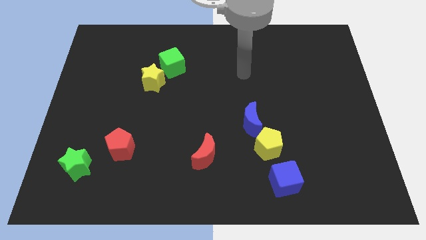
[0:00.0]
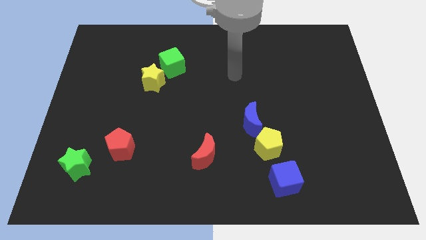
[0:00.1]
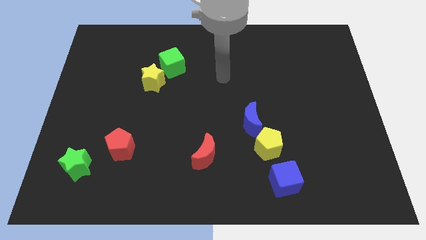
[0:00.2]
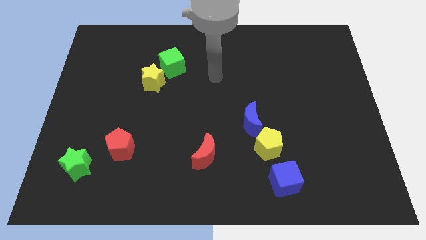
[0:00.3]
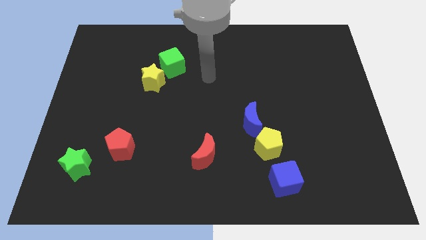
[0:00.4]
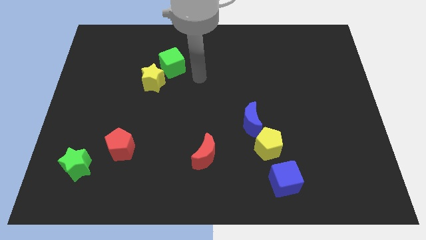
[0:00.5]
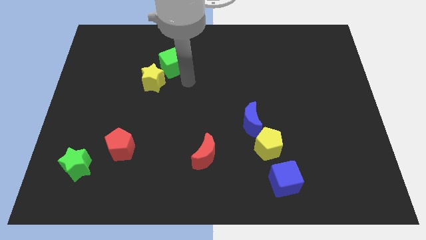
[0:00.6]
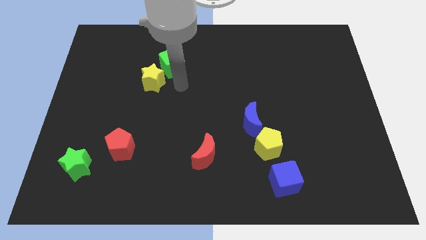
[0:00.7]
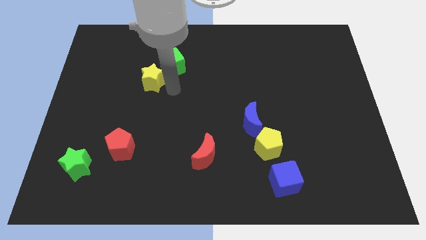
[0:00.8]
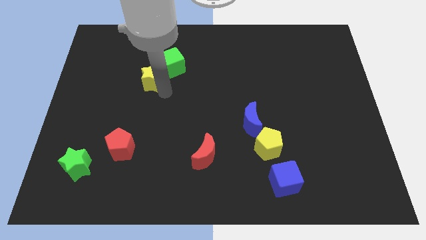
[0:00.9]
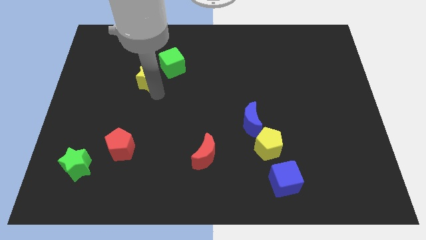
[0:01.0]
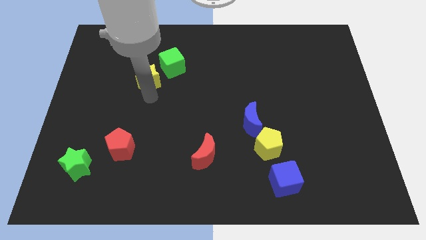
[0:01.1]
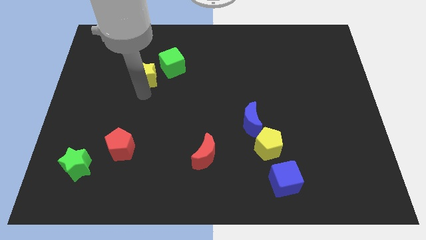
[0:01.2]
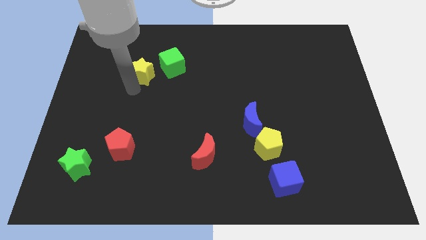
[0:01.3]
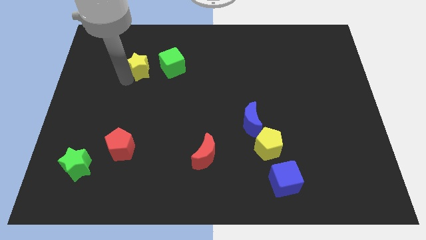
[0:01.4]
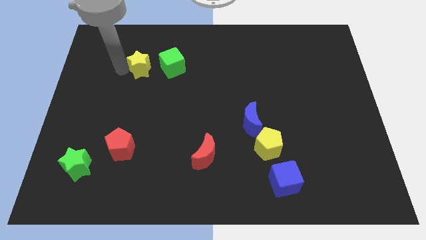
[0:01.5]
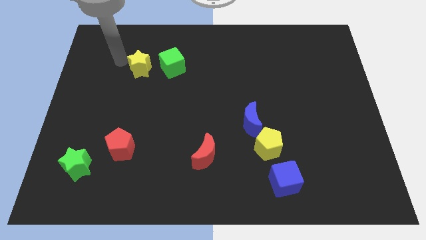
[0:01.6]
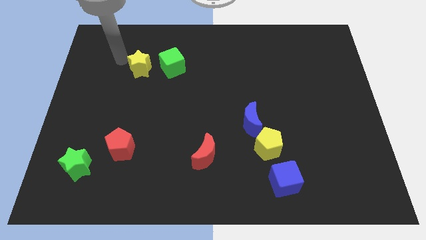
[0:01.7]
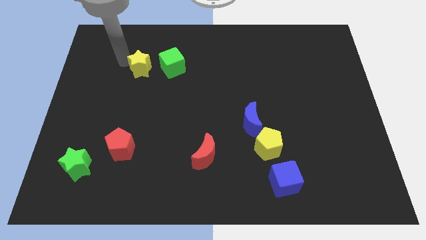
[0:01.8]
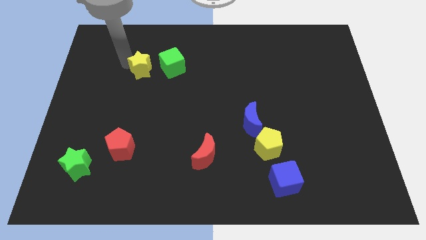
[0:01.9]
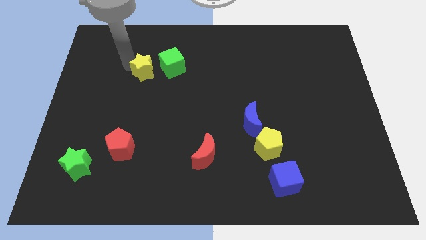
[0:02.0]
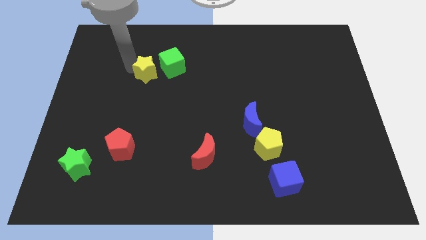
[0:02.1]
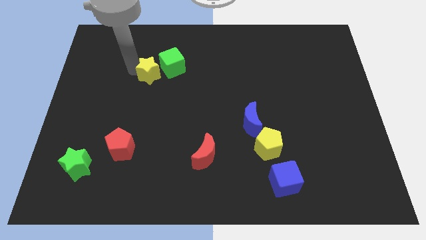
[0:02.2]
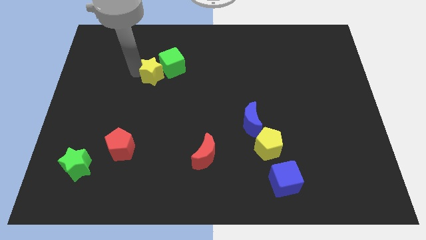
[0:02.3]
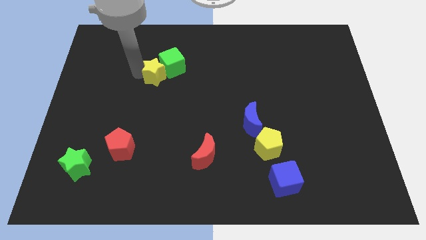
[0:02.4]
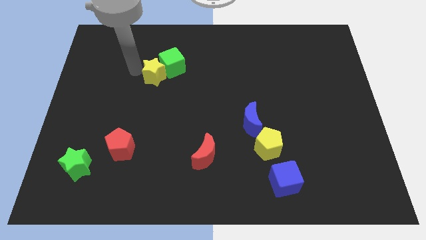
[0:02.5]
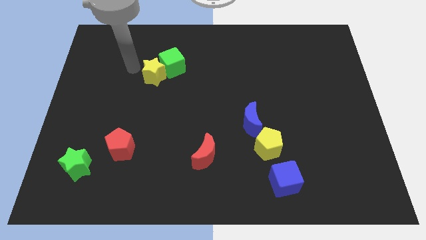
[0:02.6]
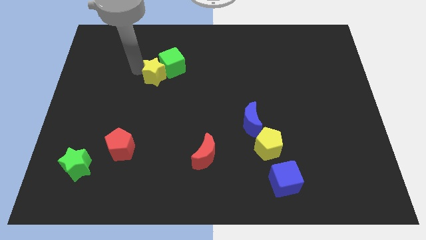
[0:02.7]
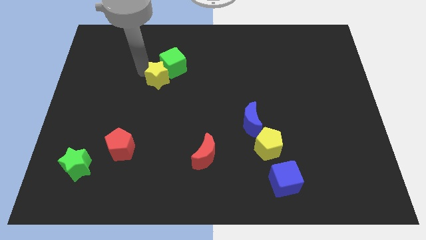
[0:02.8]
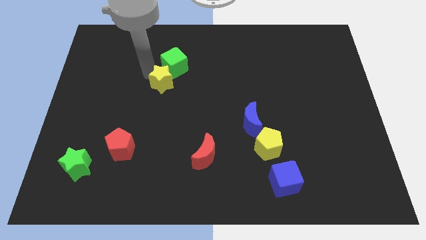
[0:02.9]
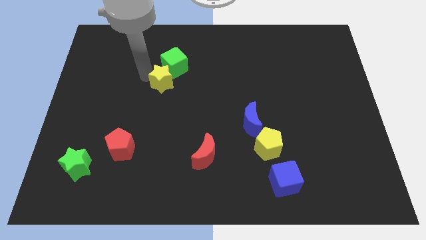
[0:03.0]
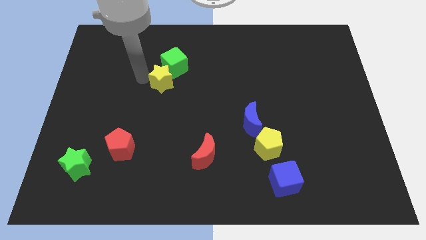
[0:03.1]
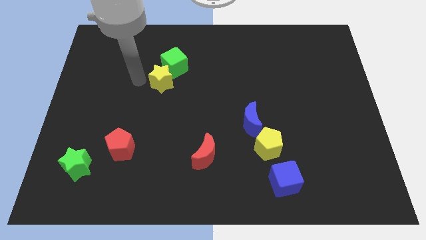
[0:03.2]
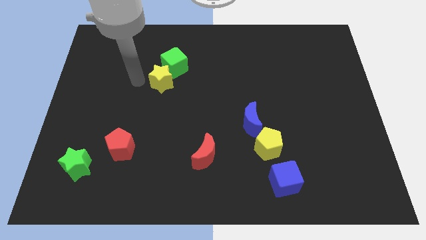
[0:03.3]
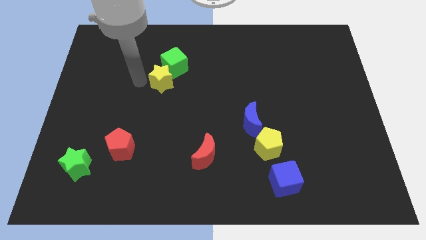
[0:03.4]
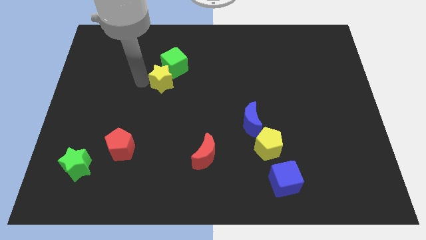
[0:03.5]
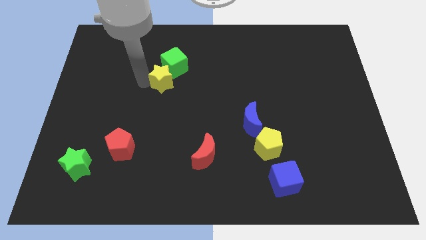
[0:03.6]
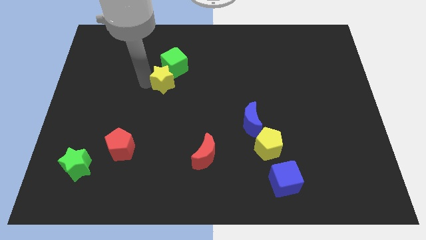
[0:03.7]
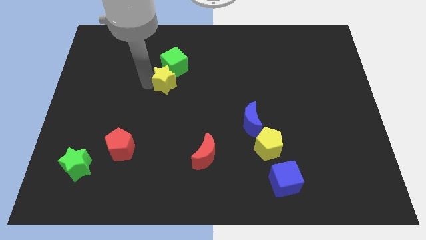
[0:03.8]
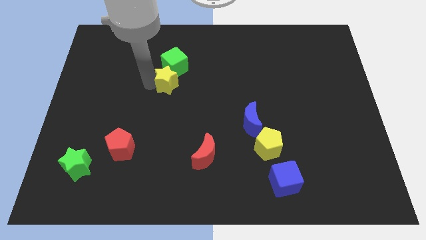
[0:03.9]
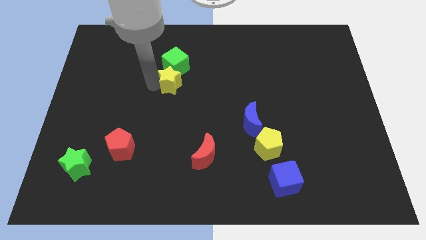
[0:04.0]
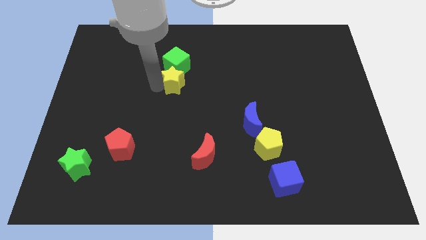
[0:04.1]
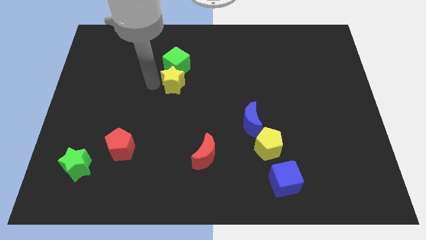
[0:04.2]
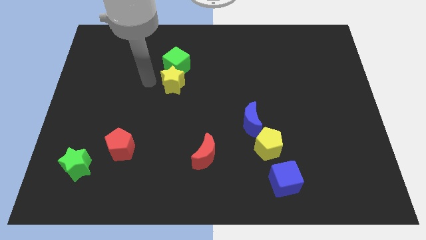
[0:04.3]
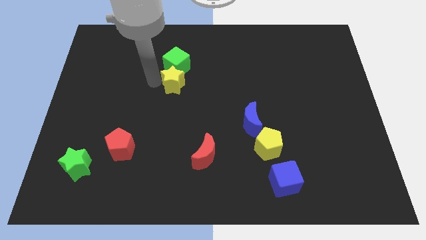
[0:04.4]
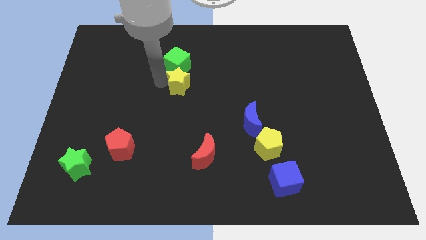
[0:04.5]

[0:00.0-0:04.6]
slightly move the yellow star right

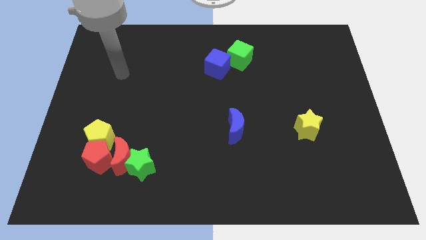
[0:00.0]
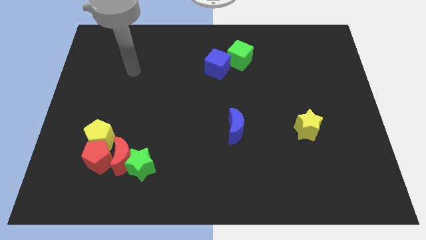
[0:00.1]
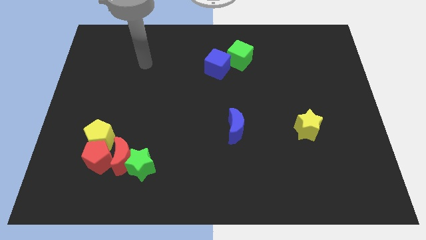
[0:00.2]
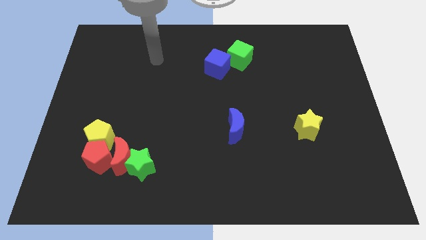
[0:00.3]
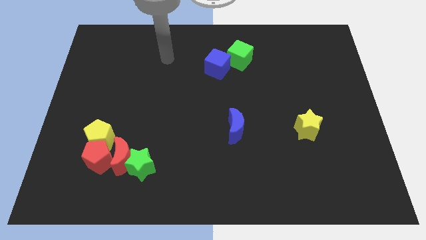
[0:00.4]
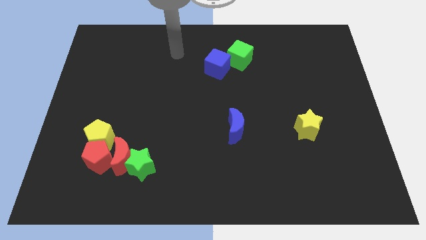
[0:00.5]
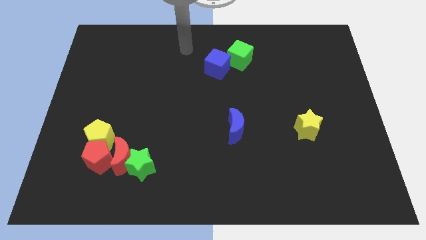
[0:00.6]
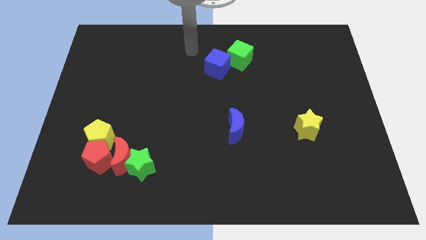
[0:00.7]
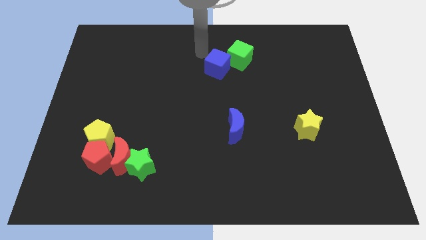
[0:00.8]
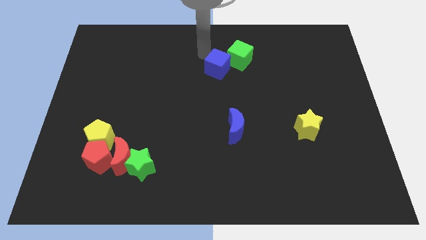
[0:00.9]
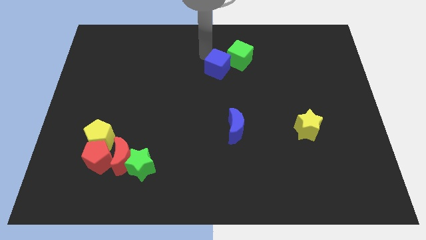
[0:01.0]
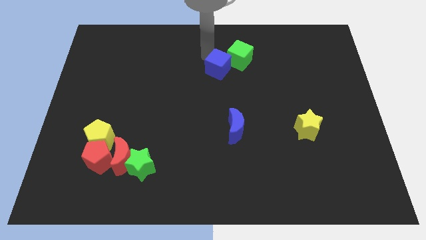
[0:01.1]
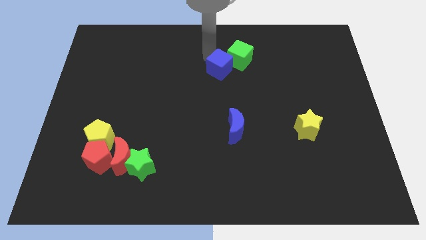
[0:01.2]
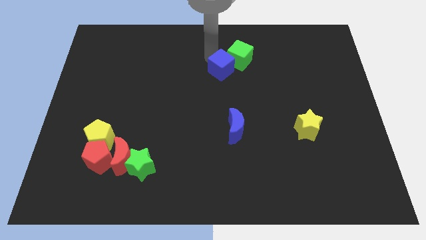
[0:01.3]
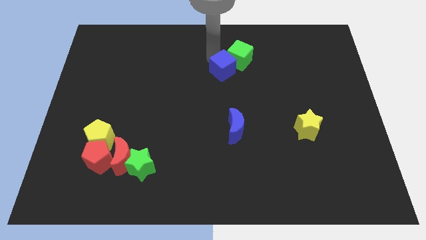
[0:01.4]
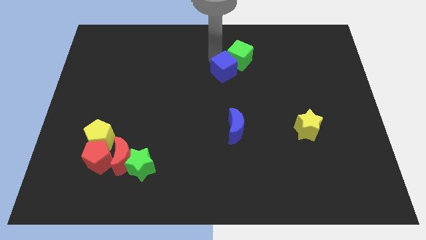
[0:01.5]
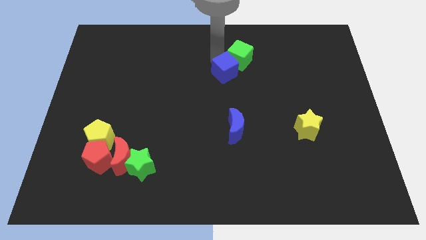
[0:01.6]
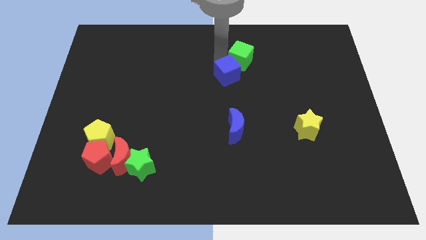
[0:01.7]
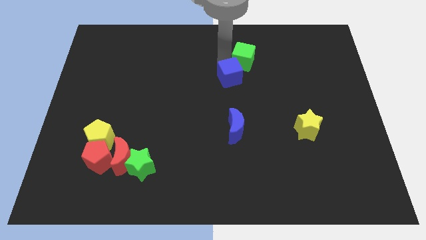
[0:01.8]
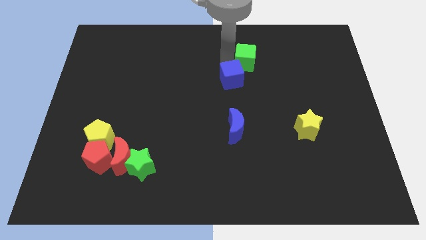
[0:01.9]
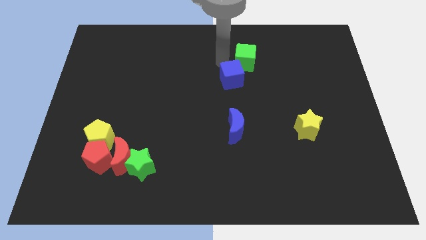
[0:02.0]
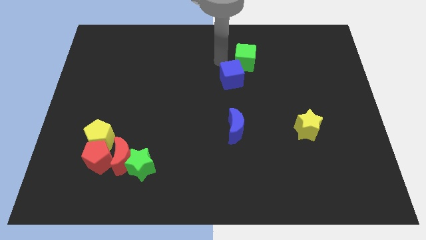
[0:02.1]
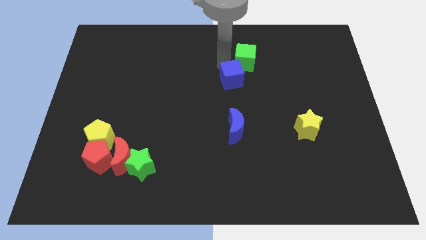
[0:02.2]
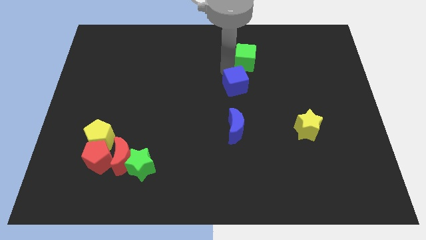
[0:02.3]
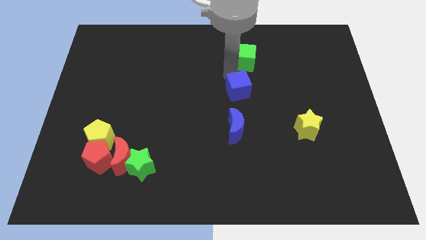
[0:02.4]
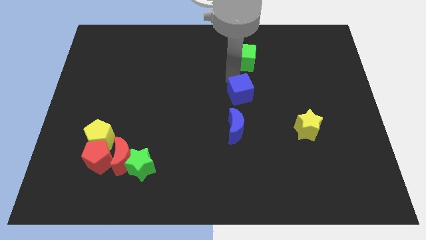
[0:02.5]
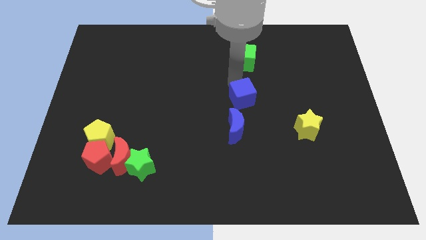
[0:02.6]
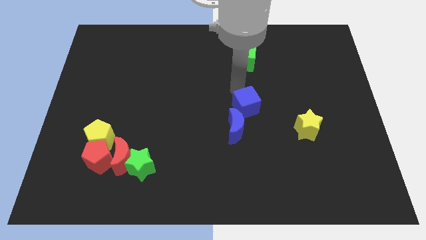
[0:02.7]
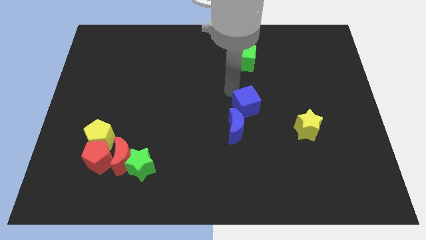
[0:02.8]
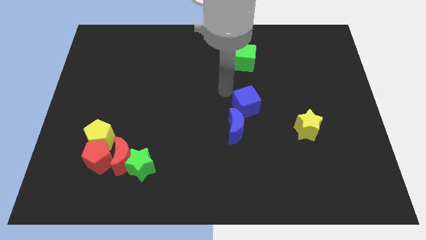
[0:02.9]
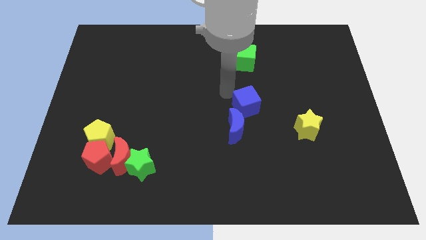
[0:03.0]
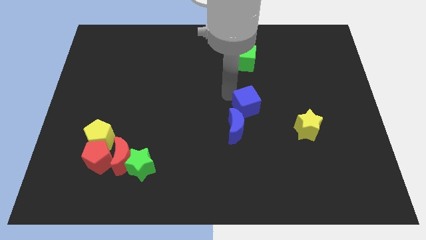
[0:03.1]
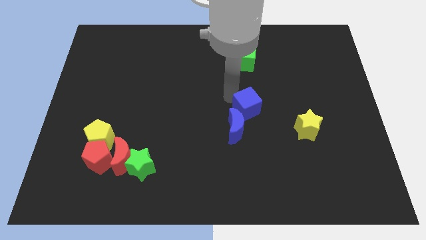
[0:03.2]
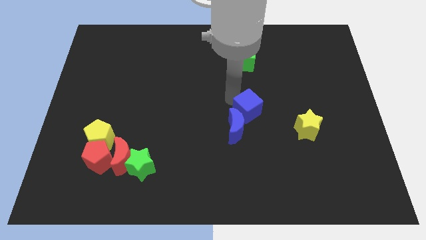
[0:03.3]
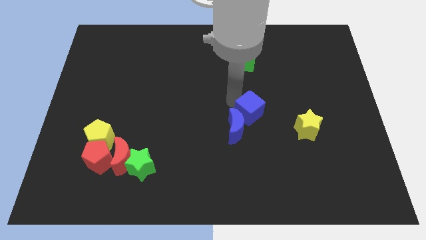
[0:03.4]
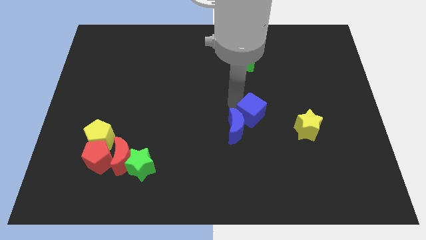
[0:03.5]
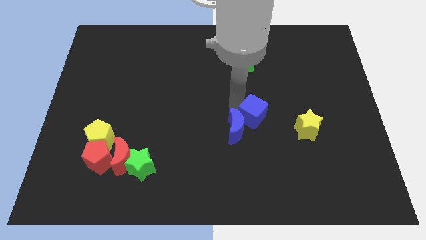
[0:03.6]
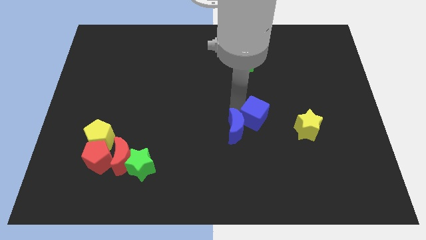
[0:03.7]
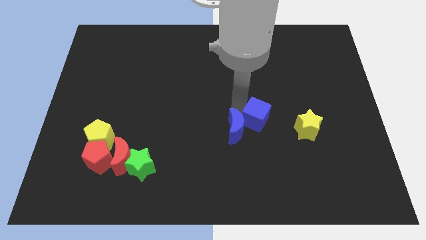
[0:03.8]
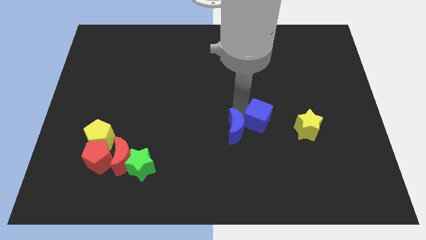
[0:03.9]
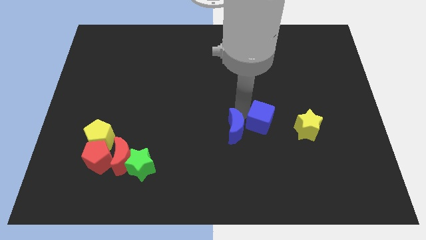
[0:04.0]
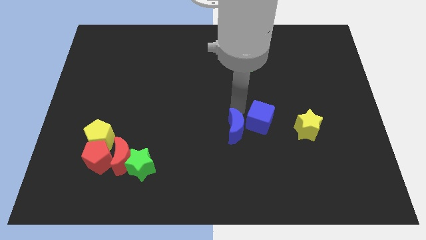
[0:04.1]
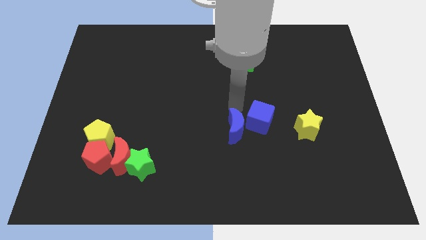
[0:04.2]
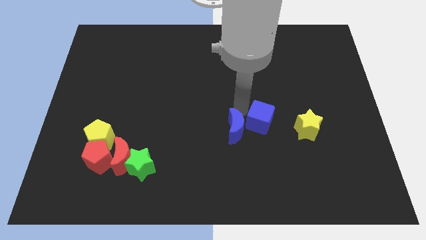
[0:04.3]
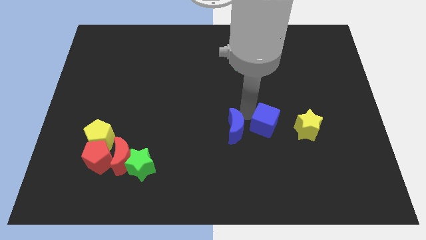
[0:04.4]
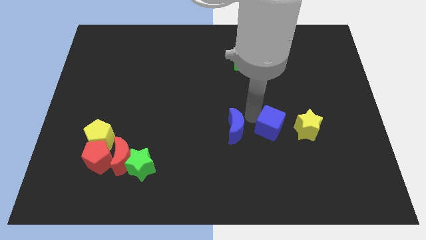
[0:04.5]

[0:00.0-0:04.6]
push the blue cube down and to the right diagonally
